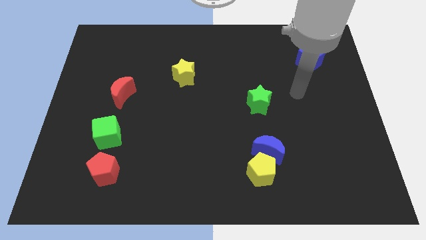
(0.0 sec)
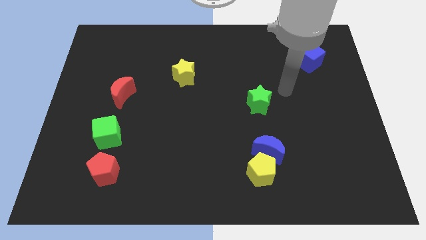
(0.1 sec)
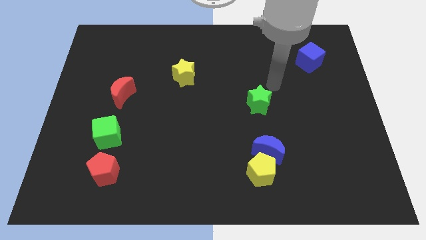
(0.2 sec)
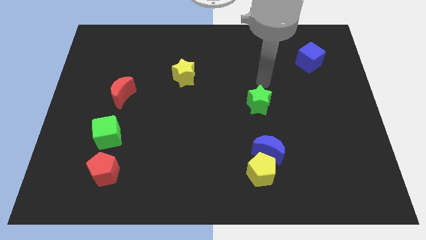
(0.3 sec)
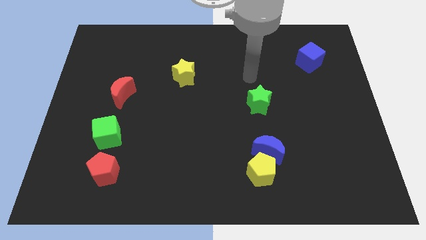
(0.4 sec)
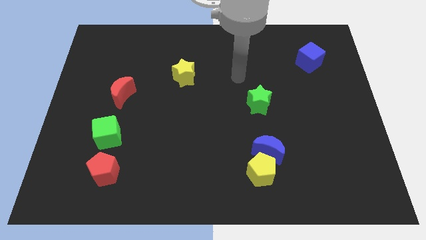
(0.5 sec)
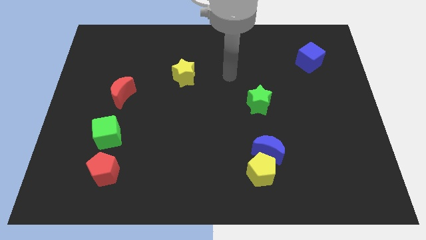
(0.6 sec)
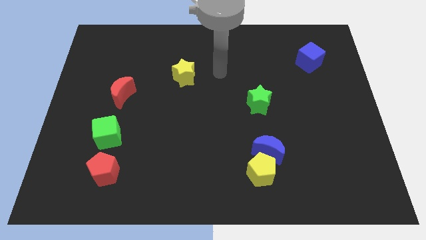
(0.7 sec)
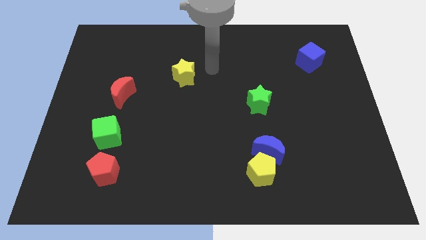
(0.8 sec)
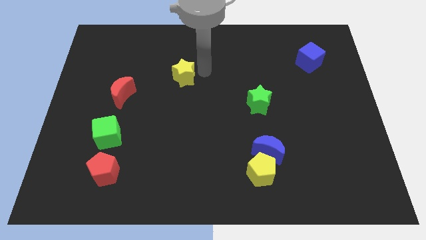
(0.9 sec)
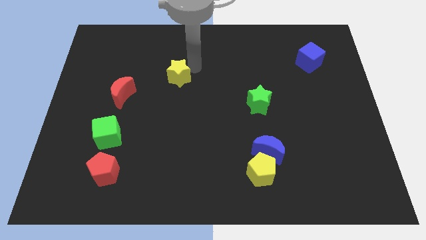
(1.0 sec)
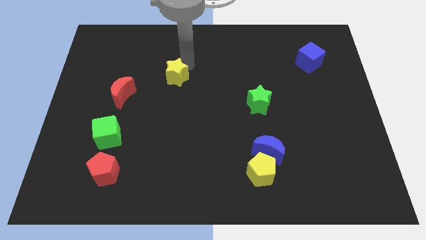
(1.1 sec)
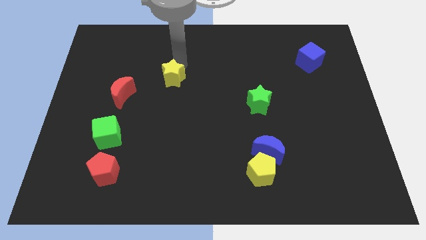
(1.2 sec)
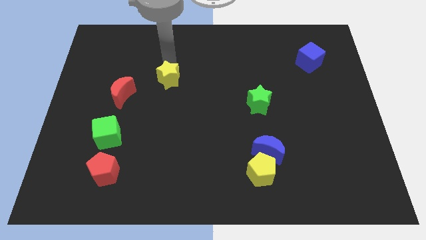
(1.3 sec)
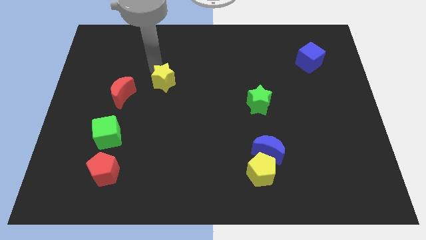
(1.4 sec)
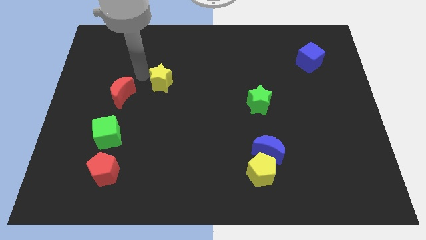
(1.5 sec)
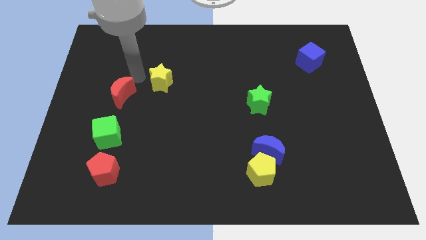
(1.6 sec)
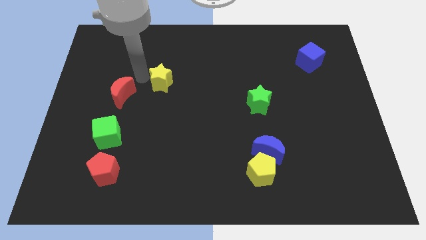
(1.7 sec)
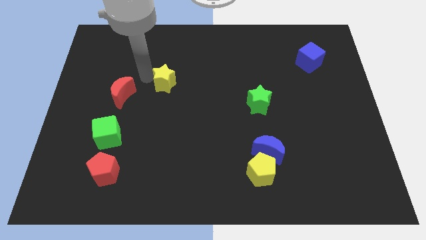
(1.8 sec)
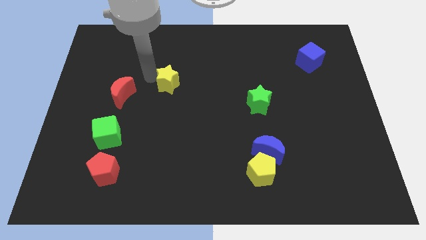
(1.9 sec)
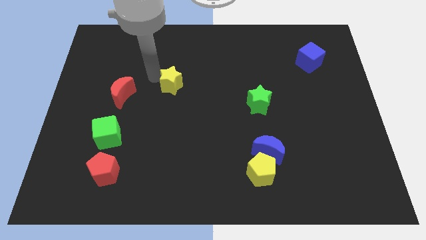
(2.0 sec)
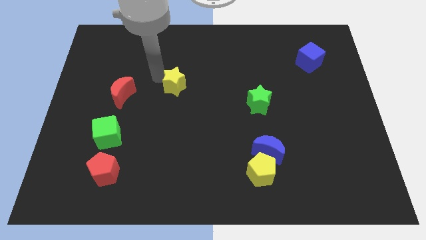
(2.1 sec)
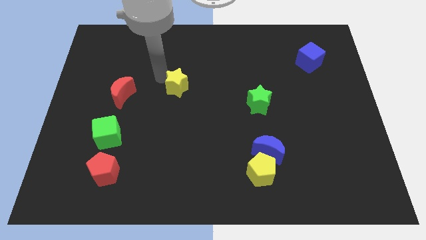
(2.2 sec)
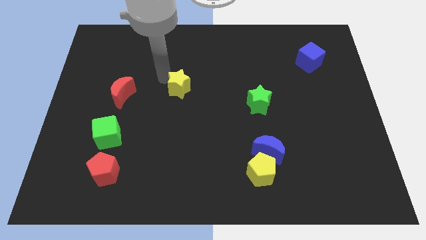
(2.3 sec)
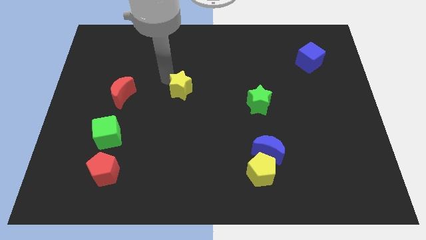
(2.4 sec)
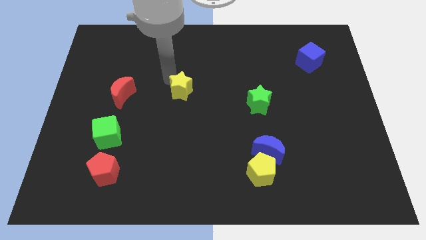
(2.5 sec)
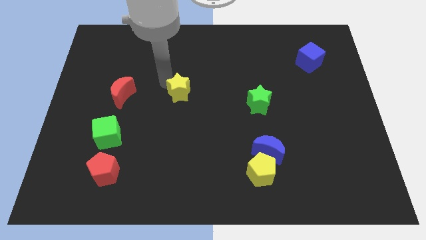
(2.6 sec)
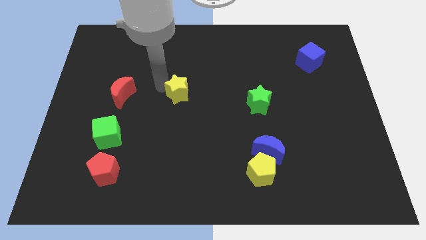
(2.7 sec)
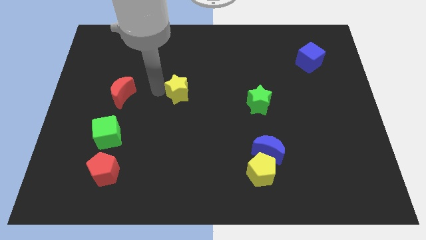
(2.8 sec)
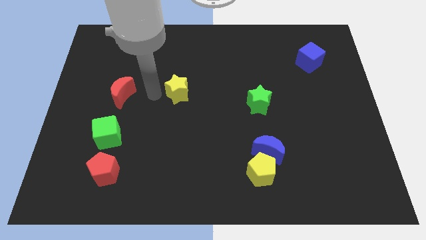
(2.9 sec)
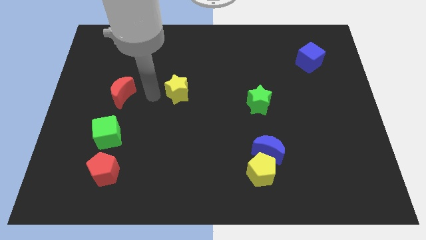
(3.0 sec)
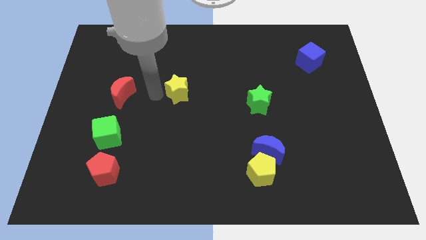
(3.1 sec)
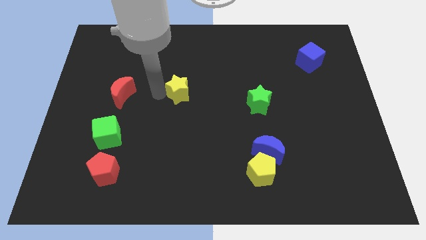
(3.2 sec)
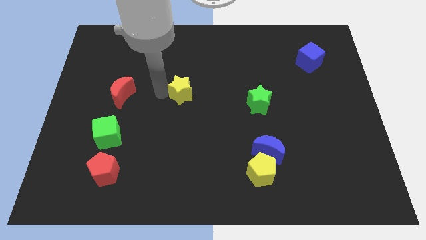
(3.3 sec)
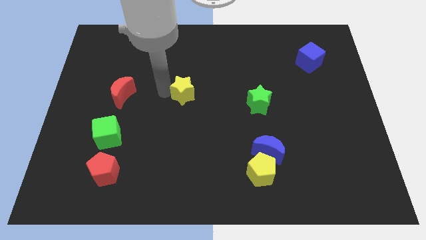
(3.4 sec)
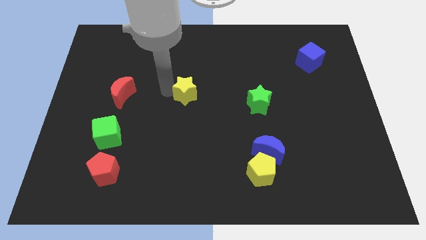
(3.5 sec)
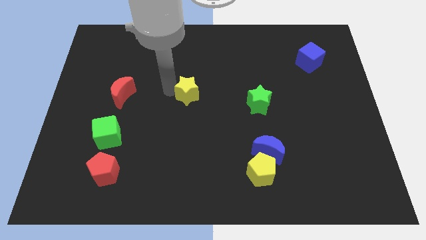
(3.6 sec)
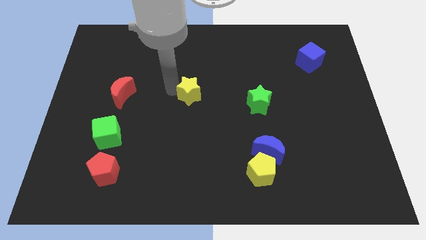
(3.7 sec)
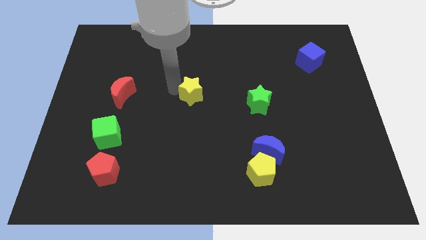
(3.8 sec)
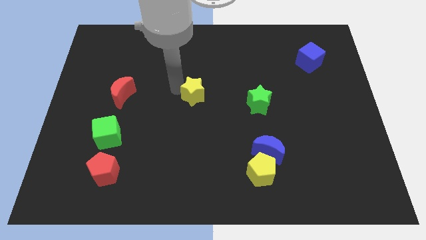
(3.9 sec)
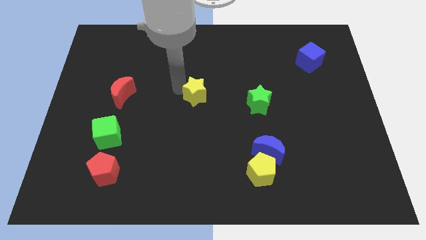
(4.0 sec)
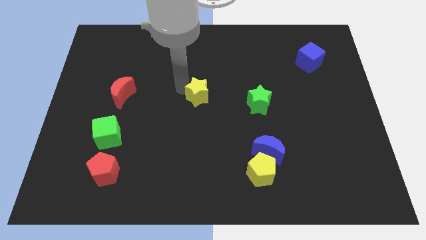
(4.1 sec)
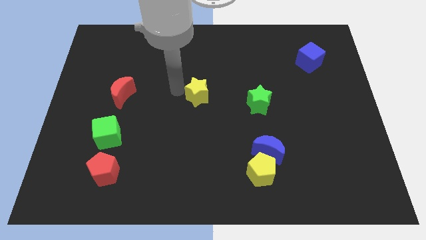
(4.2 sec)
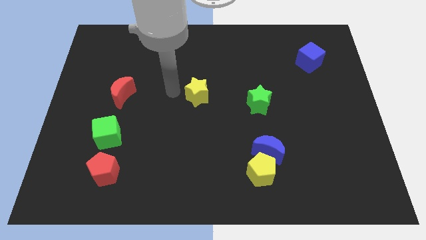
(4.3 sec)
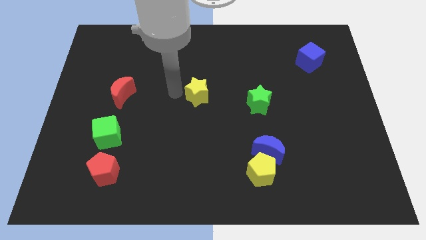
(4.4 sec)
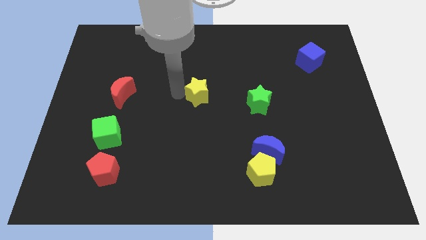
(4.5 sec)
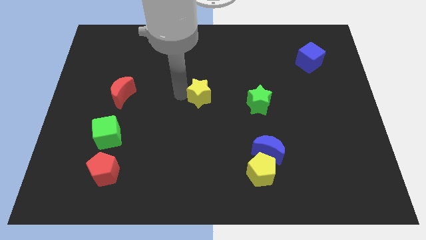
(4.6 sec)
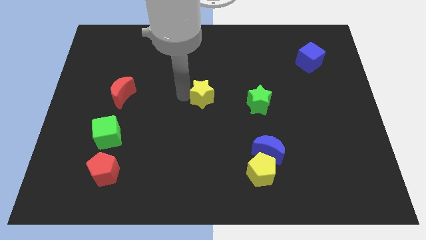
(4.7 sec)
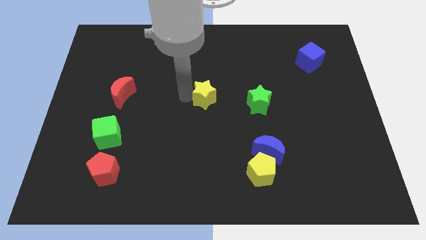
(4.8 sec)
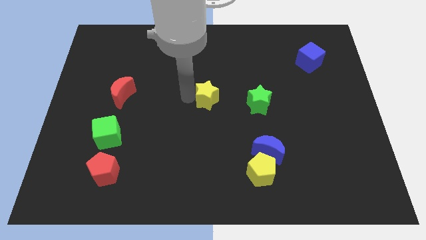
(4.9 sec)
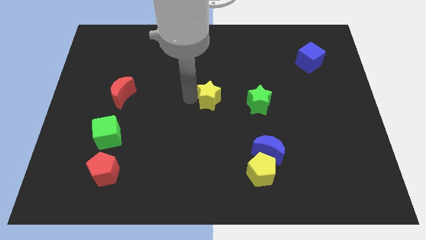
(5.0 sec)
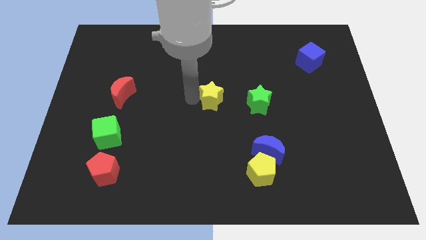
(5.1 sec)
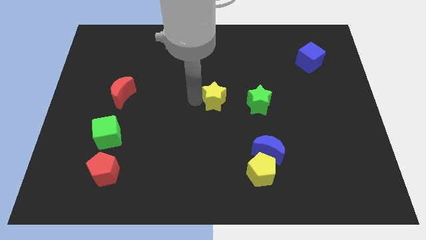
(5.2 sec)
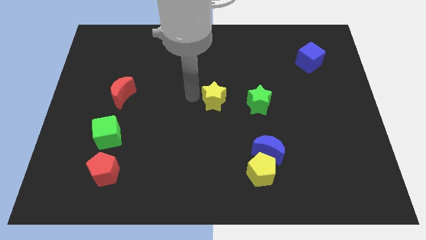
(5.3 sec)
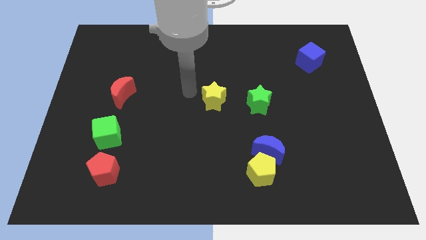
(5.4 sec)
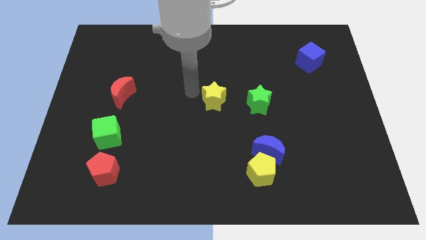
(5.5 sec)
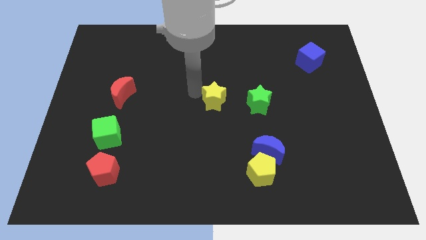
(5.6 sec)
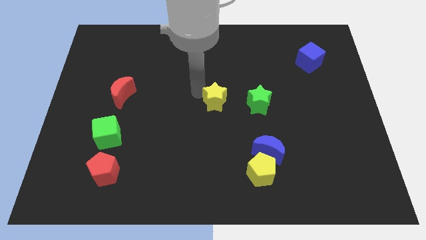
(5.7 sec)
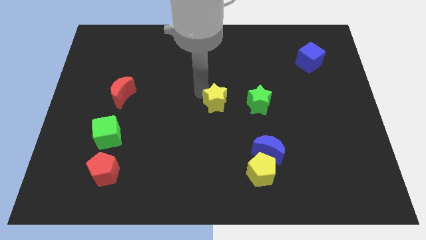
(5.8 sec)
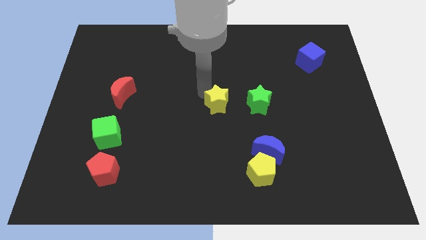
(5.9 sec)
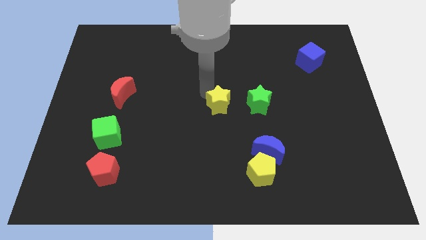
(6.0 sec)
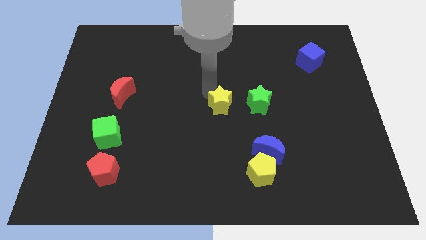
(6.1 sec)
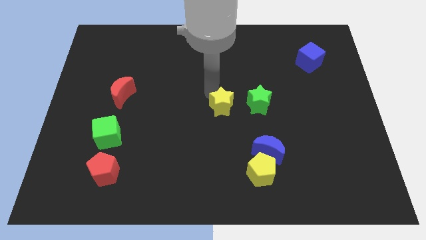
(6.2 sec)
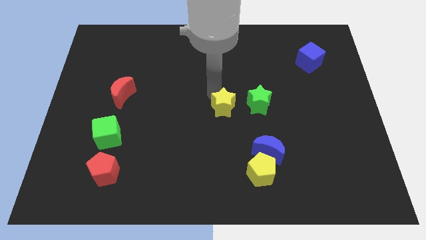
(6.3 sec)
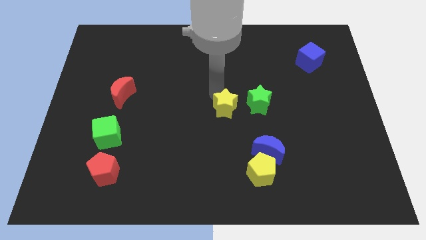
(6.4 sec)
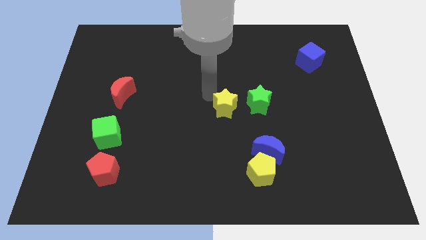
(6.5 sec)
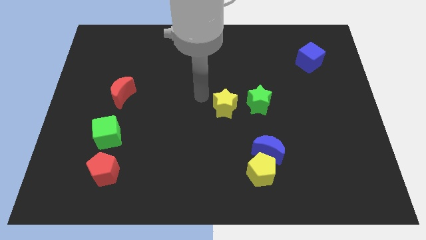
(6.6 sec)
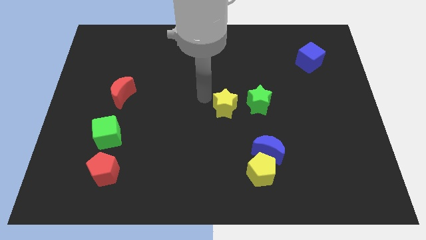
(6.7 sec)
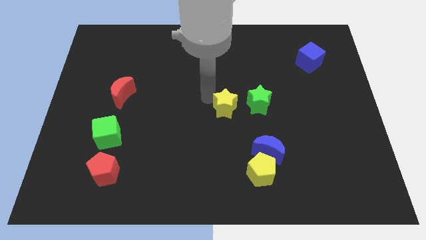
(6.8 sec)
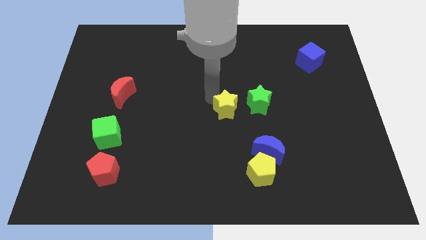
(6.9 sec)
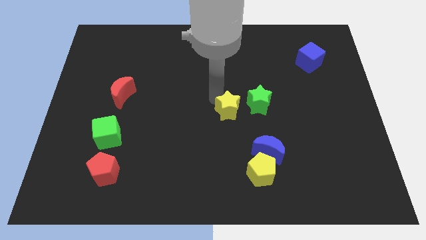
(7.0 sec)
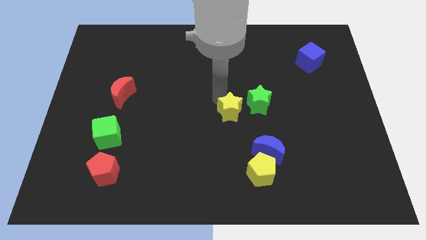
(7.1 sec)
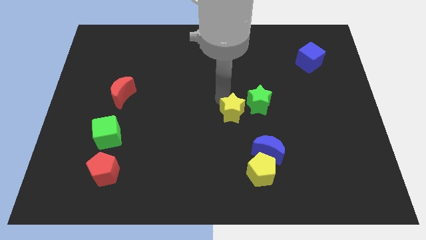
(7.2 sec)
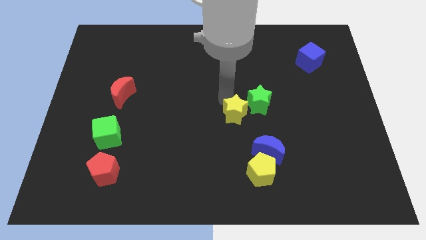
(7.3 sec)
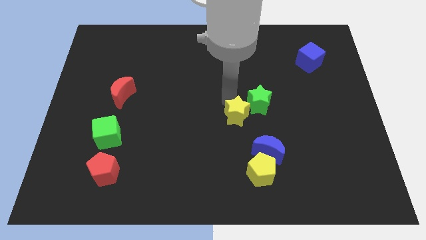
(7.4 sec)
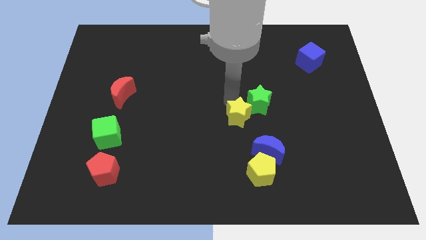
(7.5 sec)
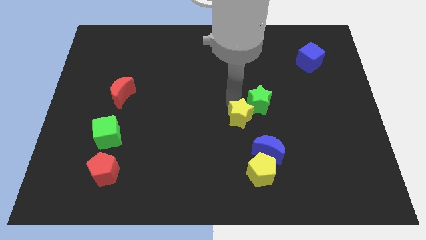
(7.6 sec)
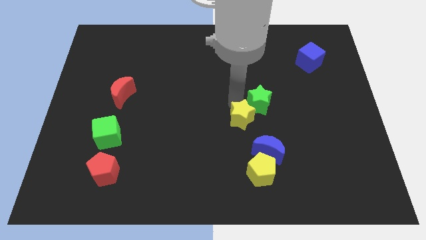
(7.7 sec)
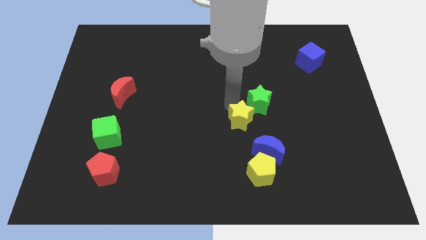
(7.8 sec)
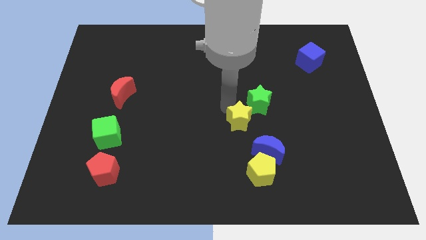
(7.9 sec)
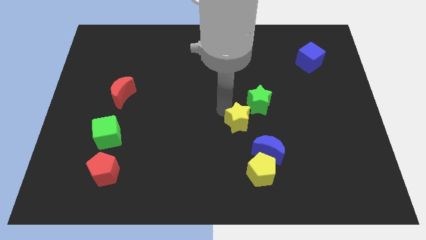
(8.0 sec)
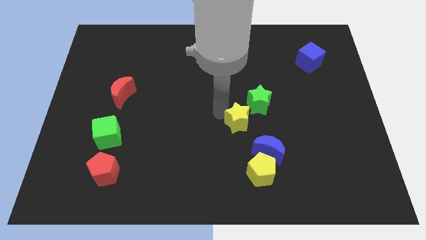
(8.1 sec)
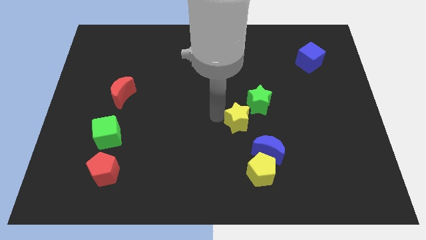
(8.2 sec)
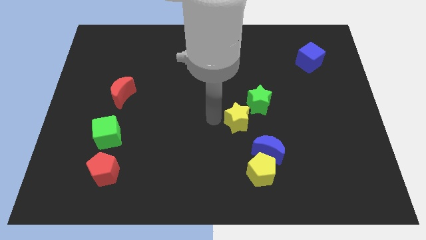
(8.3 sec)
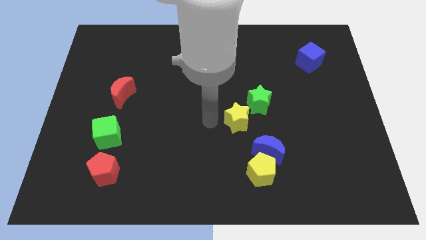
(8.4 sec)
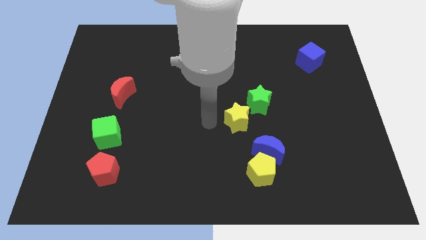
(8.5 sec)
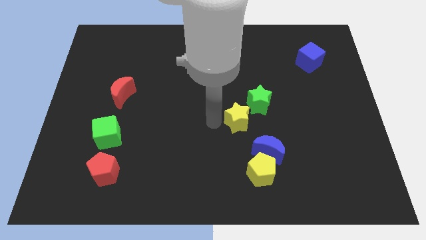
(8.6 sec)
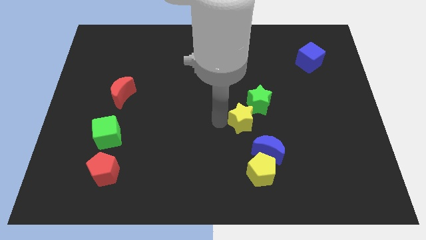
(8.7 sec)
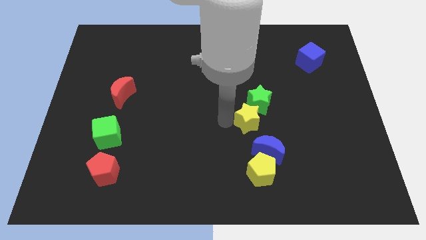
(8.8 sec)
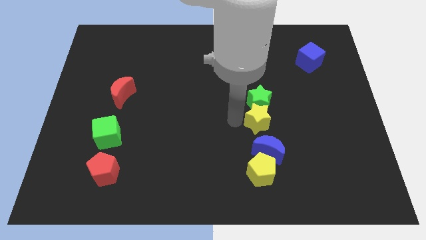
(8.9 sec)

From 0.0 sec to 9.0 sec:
slide the yellow star diagonally down and to the right of the green star
